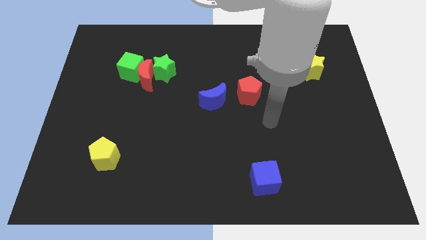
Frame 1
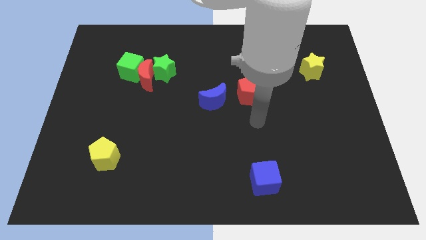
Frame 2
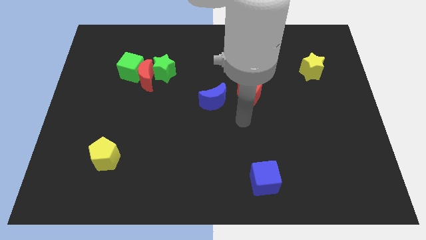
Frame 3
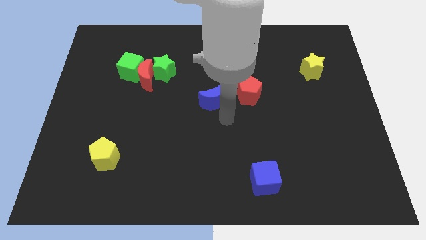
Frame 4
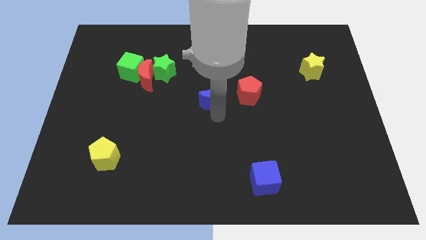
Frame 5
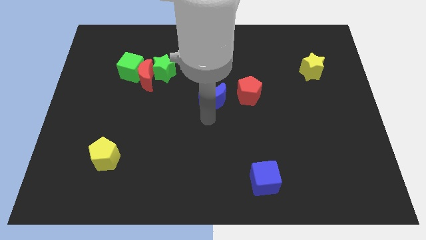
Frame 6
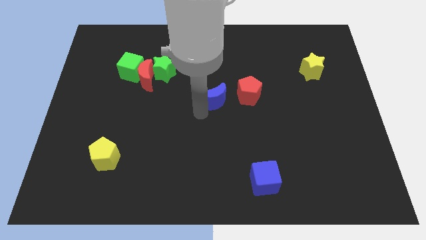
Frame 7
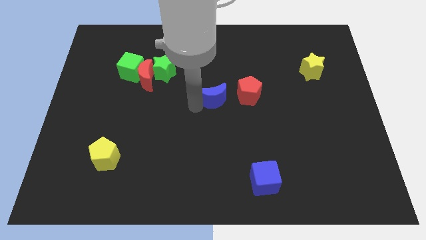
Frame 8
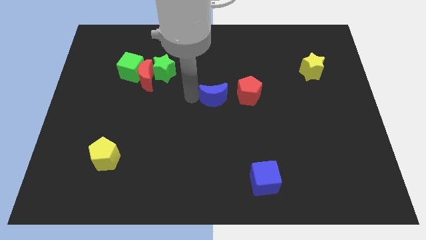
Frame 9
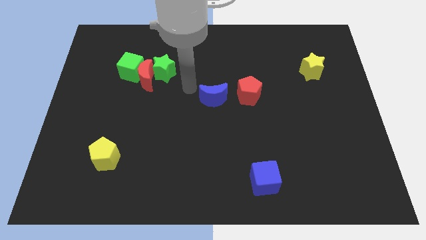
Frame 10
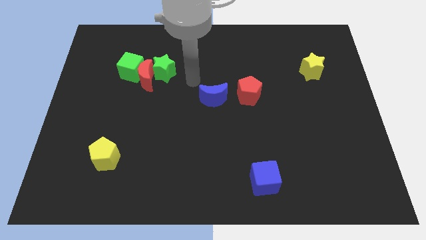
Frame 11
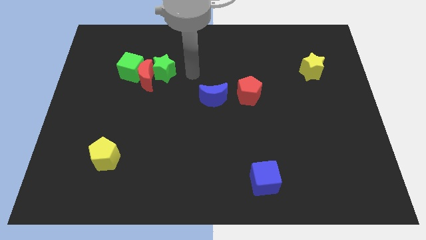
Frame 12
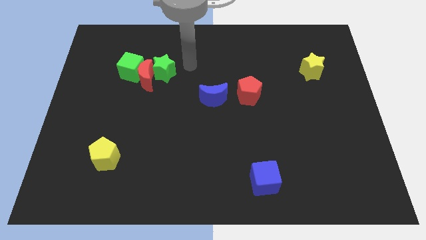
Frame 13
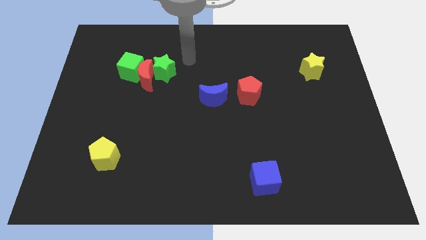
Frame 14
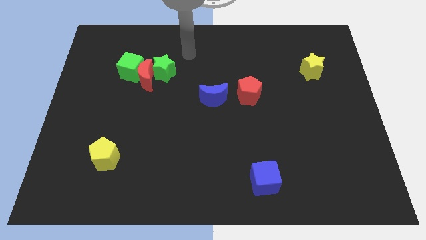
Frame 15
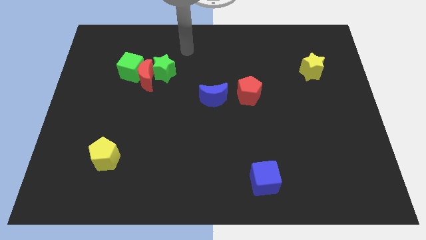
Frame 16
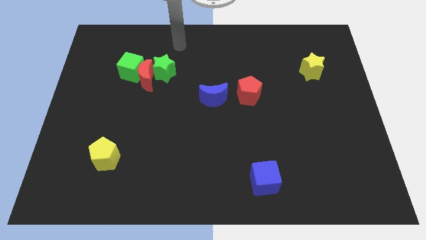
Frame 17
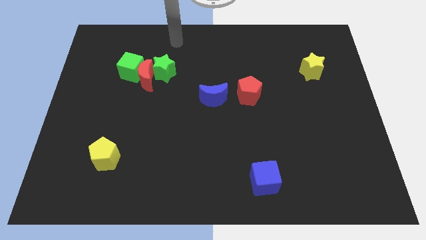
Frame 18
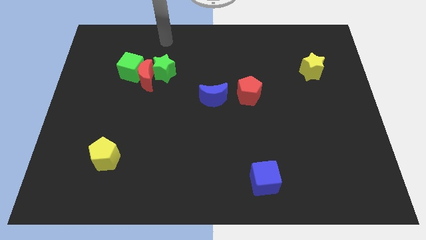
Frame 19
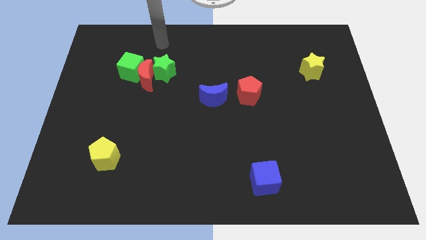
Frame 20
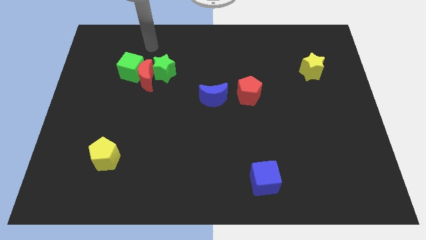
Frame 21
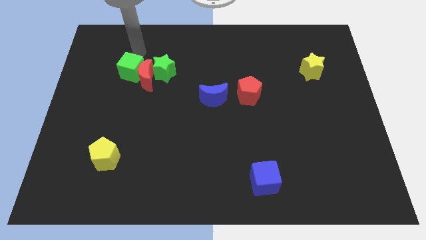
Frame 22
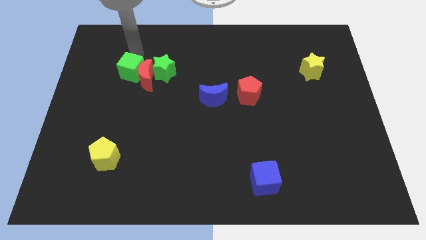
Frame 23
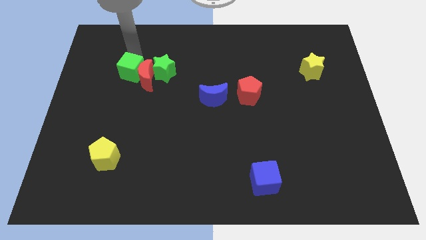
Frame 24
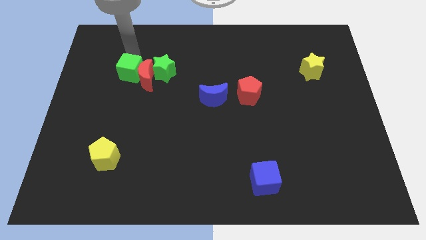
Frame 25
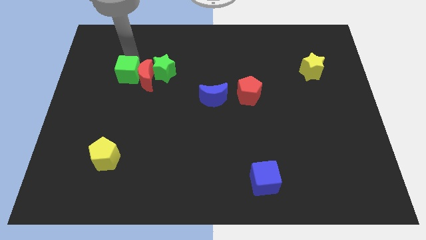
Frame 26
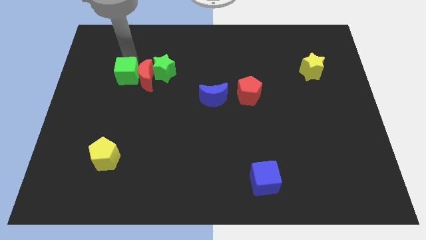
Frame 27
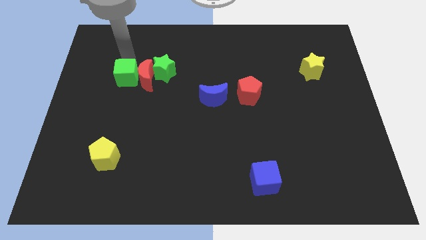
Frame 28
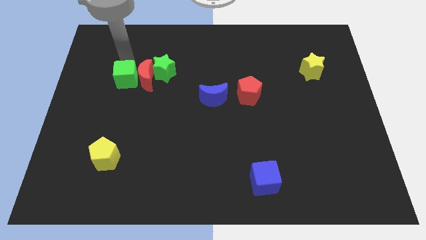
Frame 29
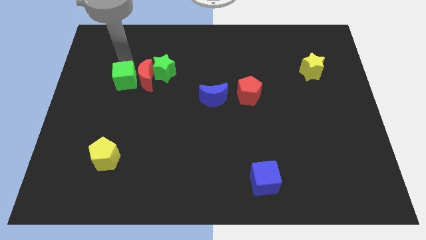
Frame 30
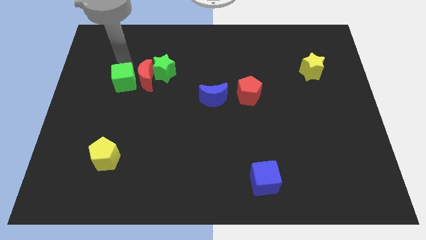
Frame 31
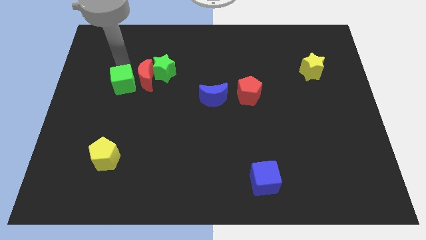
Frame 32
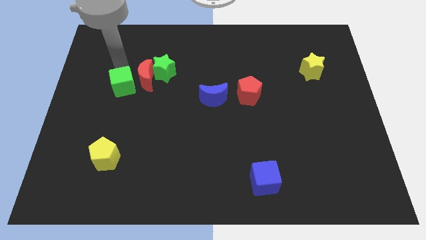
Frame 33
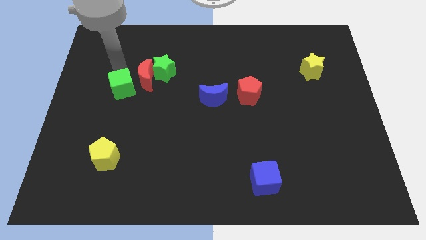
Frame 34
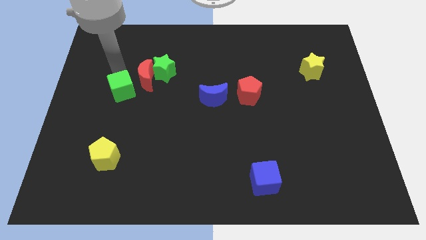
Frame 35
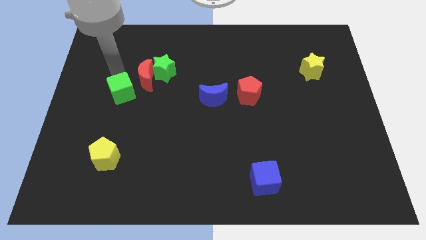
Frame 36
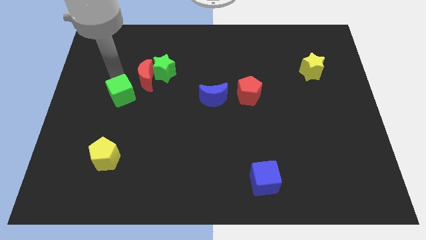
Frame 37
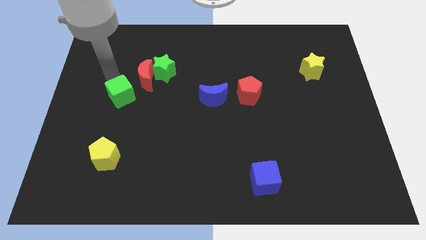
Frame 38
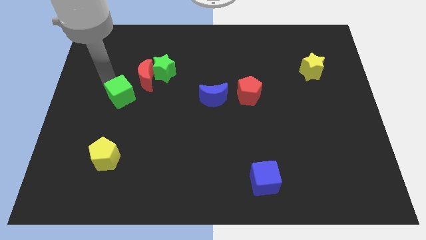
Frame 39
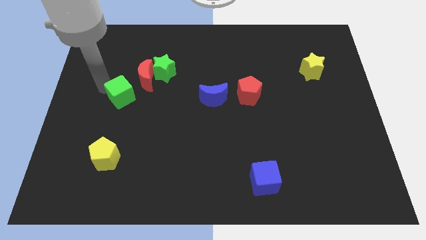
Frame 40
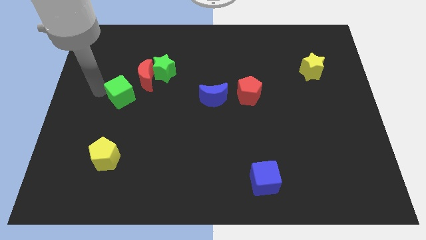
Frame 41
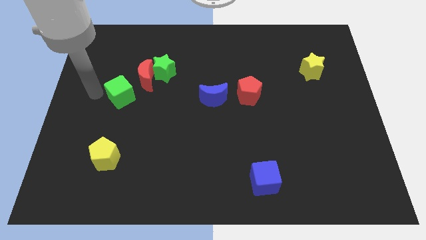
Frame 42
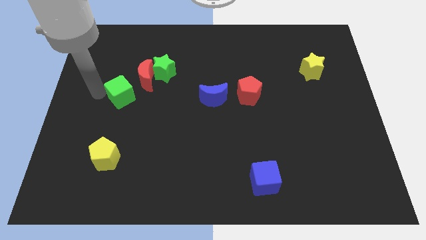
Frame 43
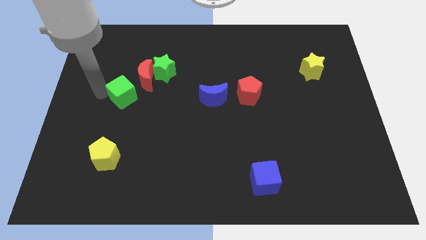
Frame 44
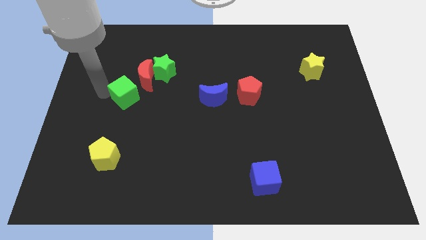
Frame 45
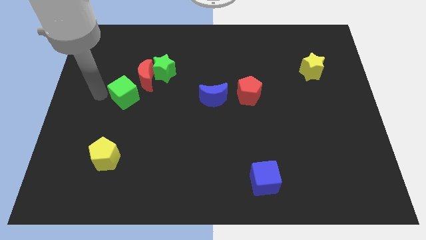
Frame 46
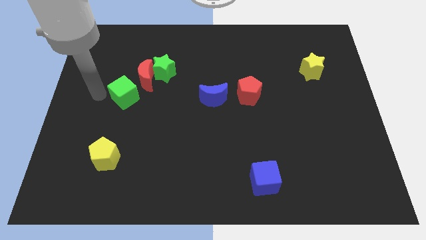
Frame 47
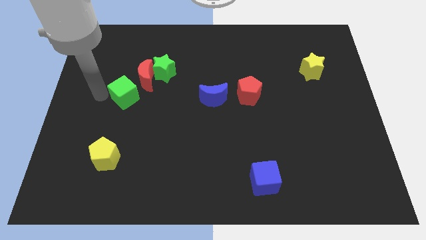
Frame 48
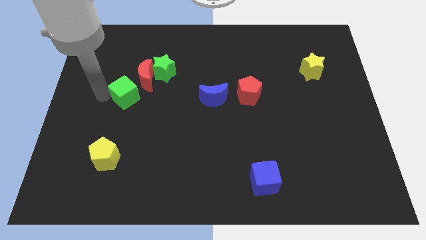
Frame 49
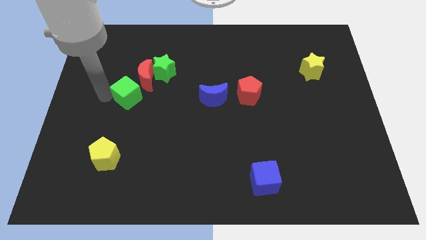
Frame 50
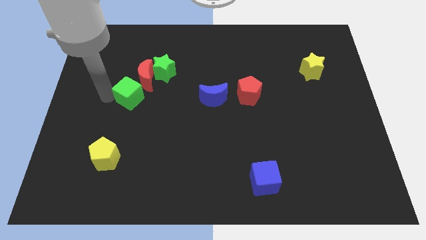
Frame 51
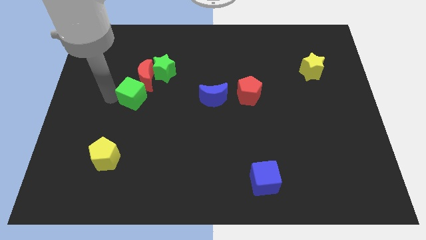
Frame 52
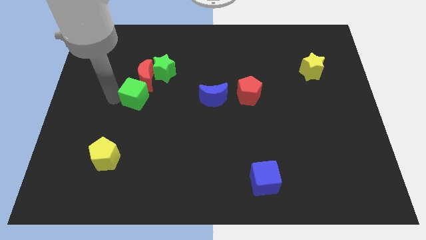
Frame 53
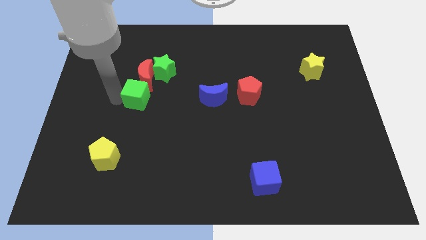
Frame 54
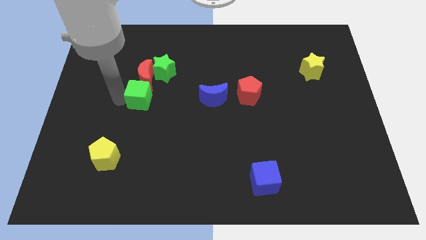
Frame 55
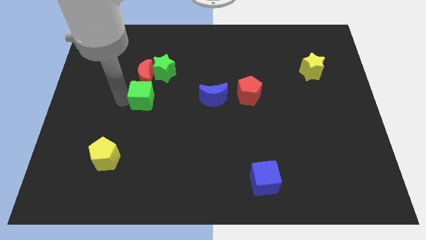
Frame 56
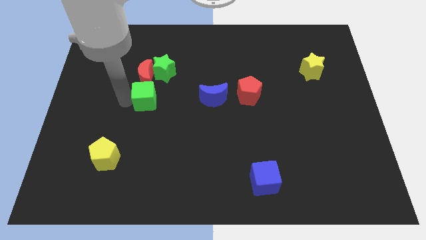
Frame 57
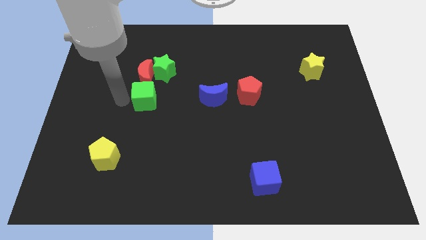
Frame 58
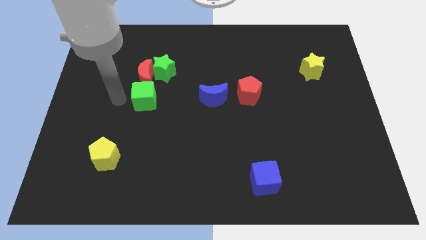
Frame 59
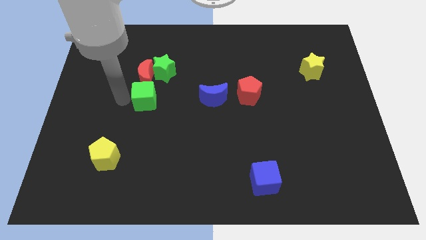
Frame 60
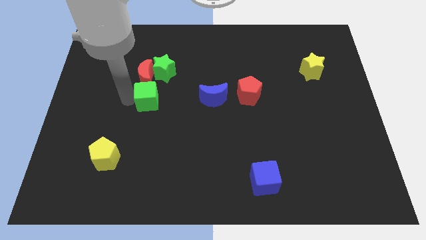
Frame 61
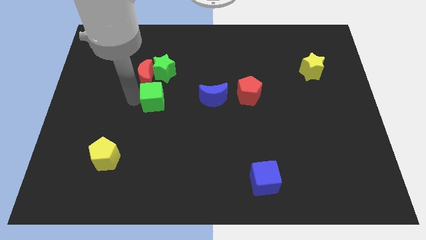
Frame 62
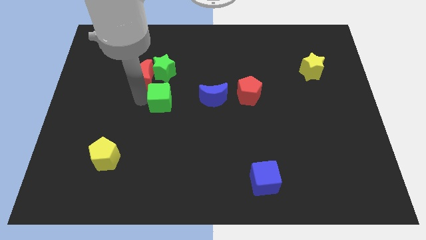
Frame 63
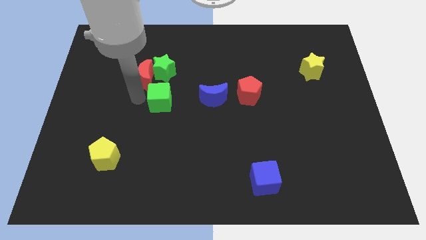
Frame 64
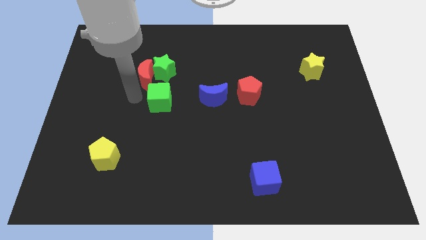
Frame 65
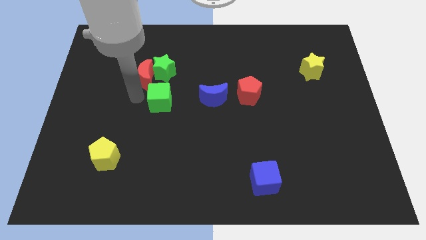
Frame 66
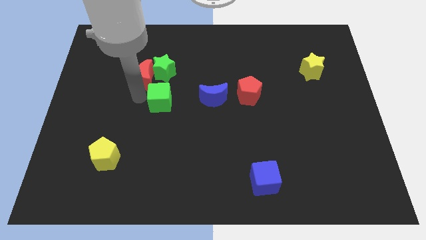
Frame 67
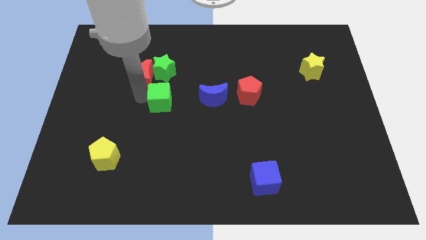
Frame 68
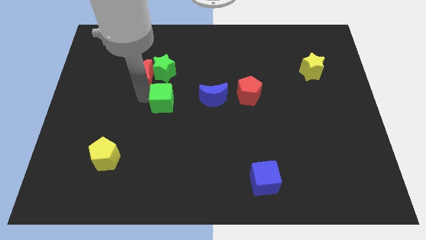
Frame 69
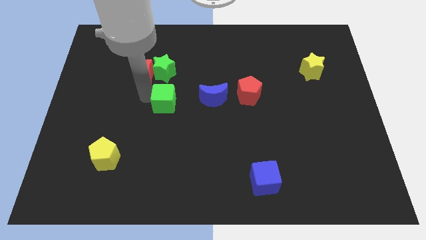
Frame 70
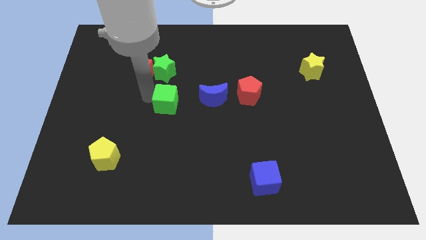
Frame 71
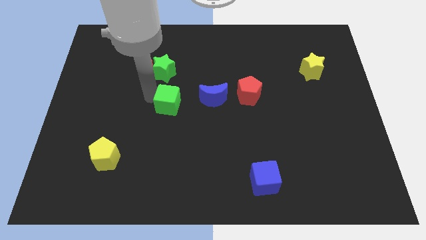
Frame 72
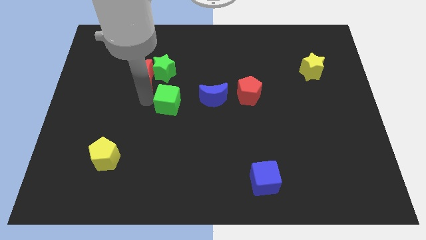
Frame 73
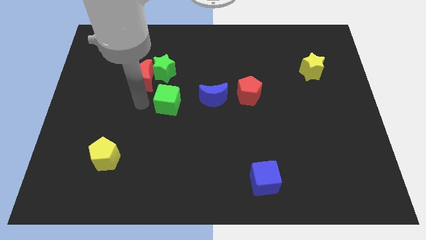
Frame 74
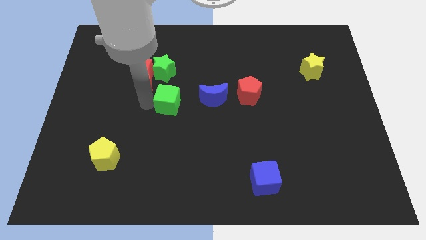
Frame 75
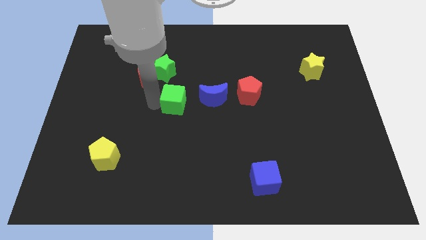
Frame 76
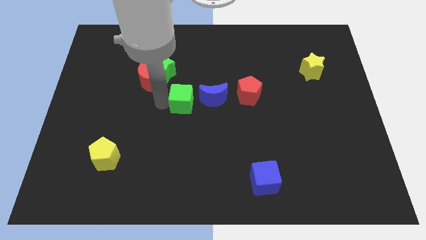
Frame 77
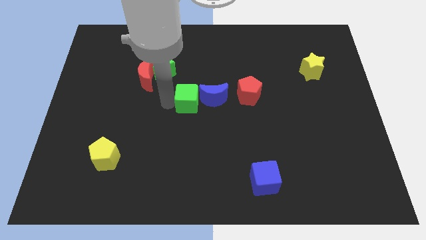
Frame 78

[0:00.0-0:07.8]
put the green cube close to the blue moon
